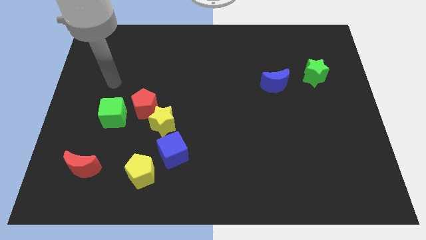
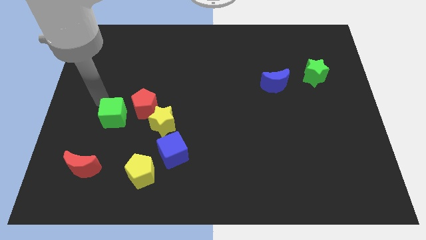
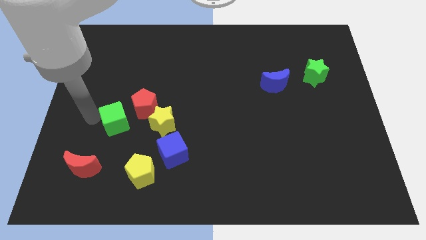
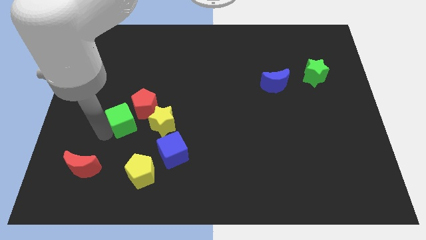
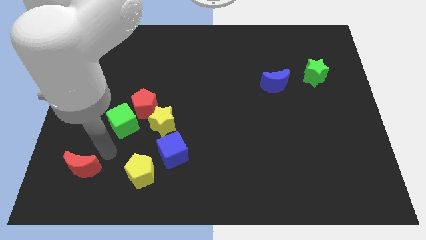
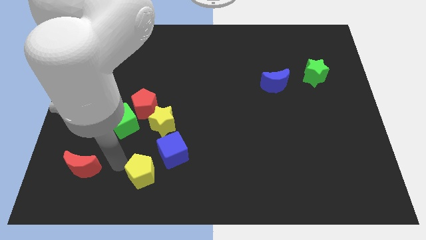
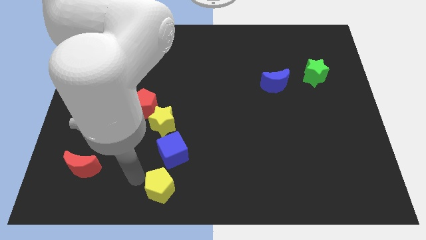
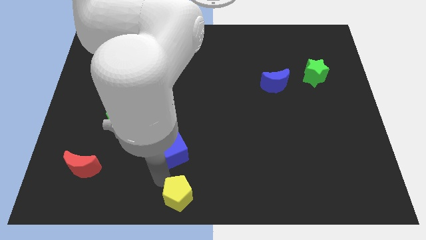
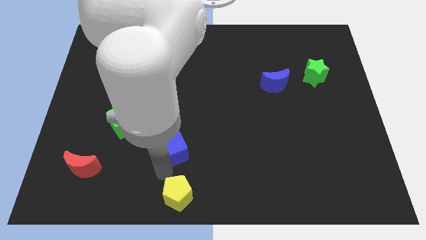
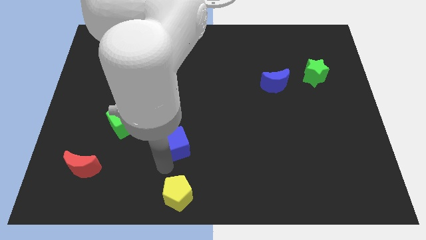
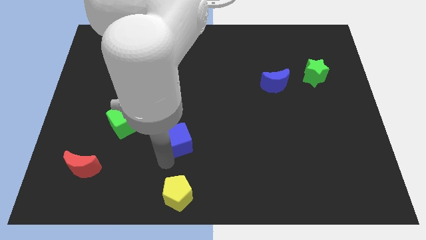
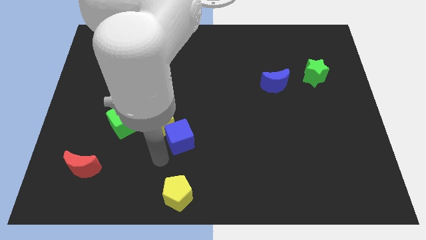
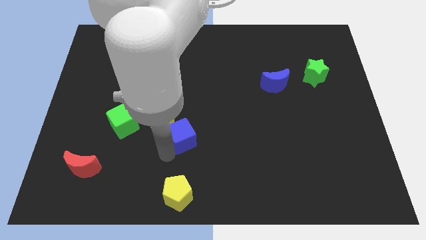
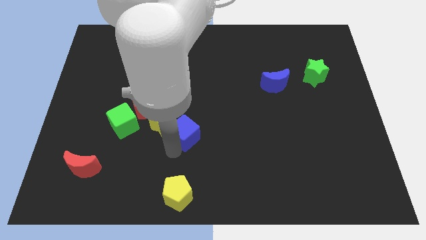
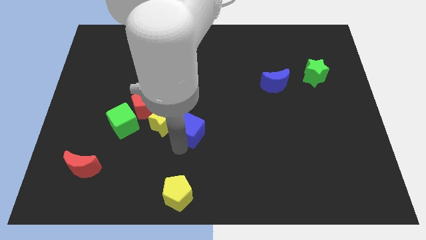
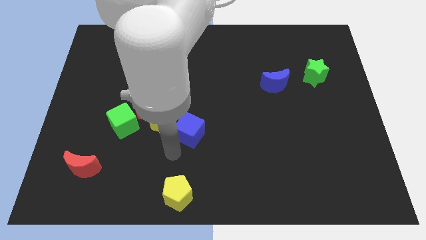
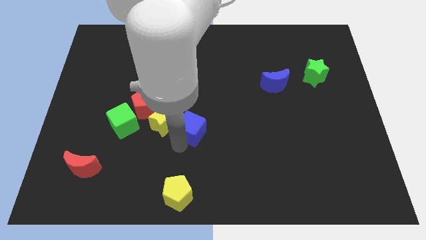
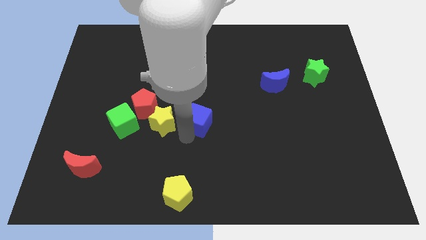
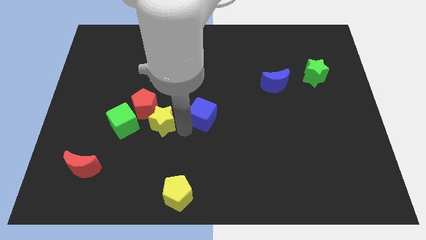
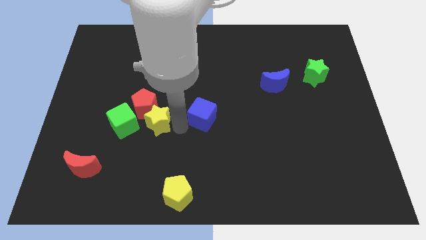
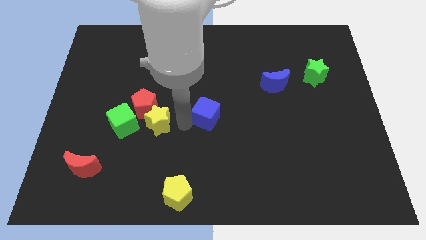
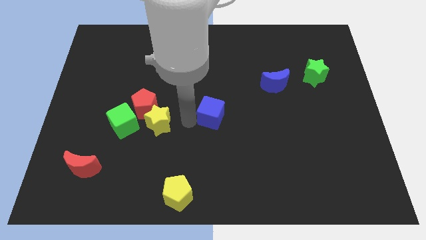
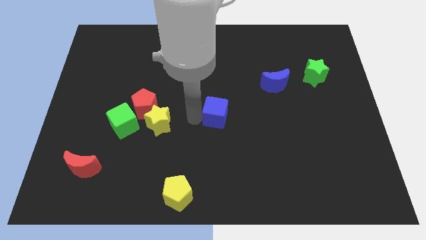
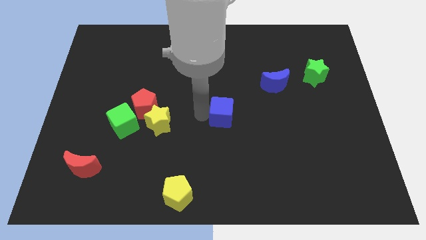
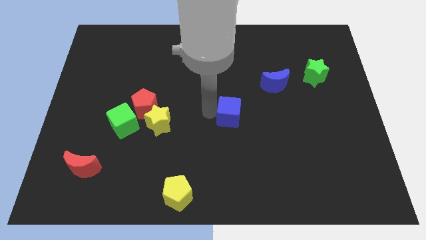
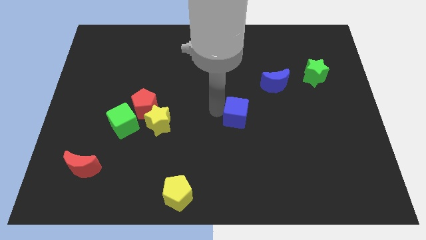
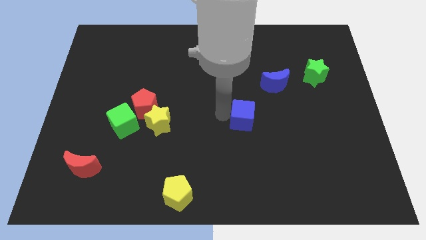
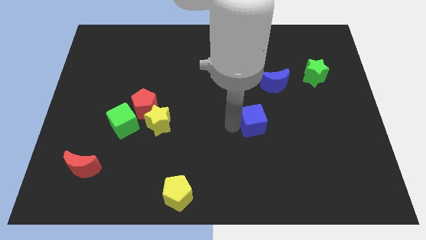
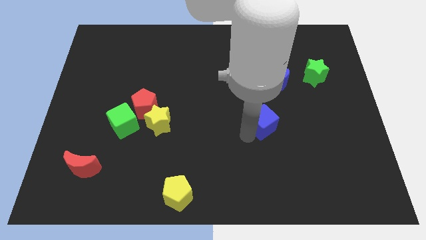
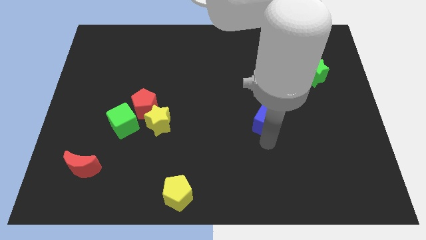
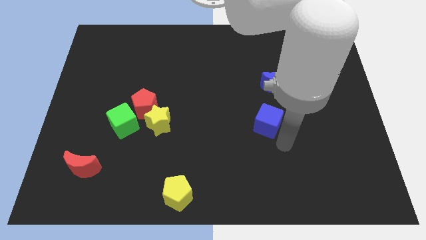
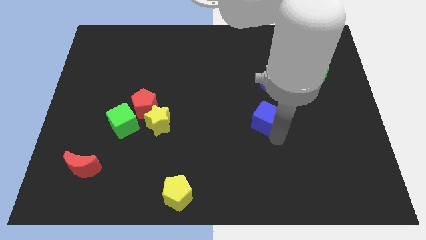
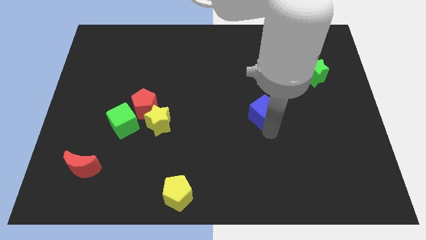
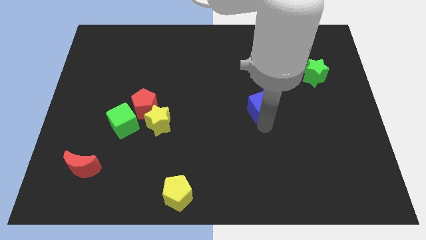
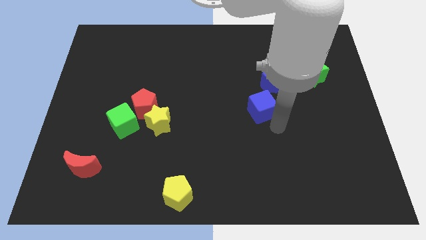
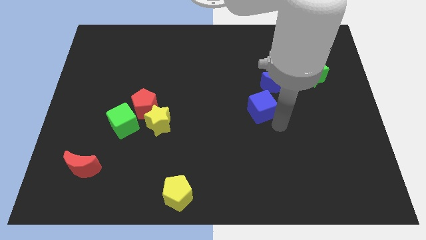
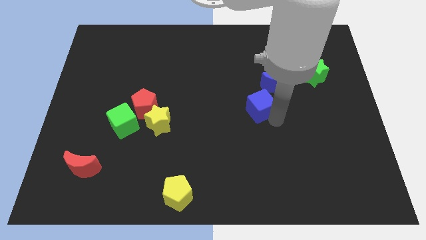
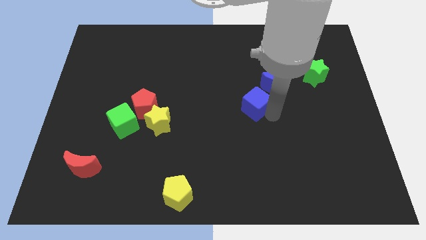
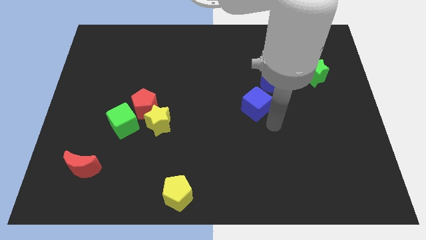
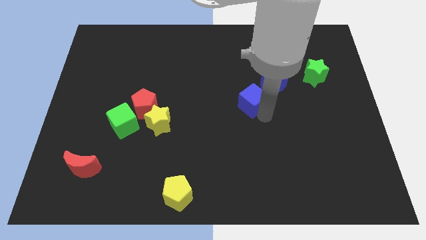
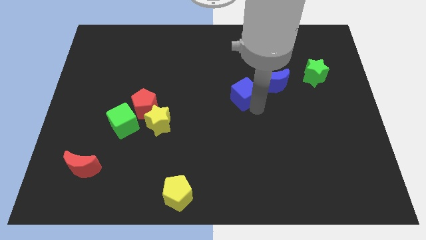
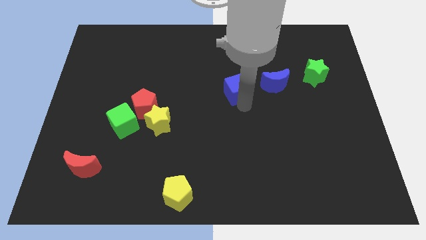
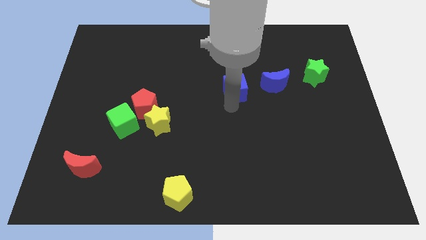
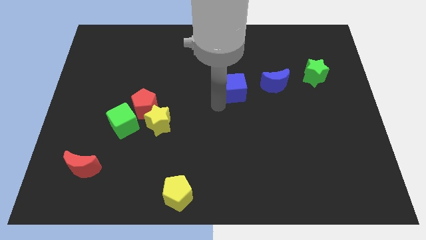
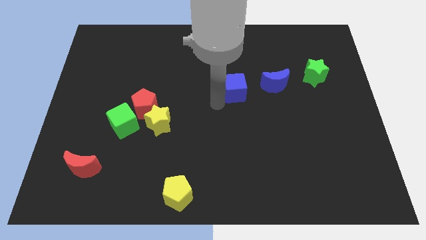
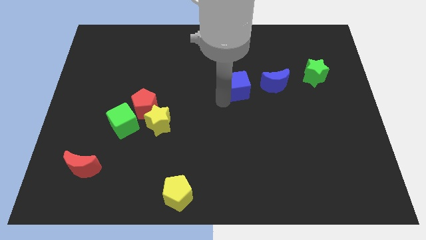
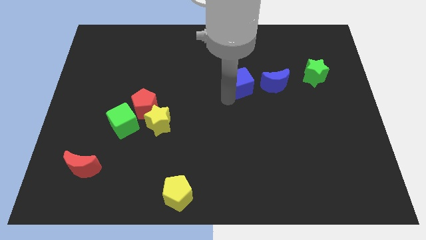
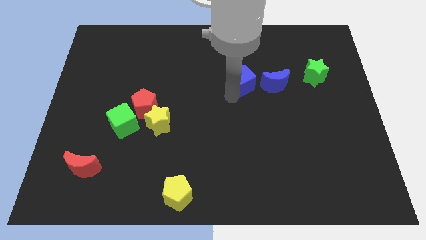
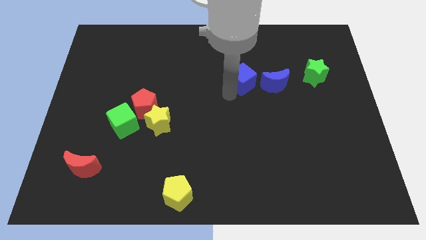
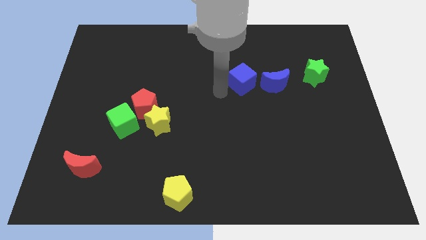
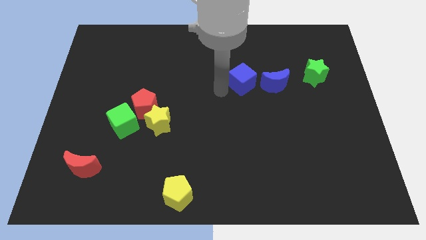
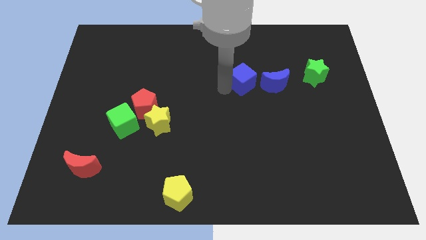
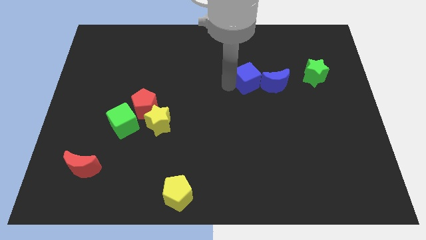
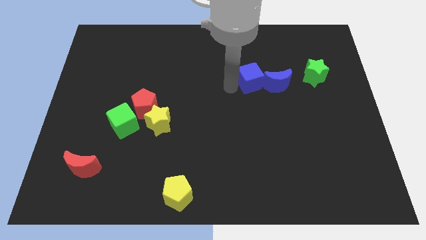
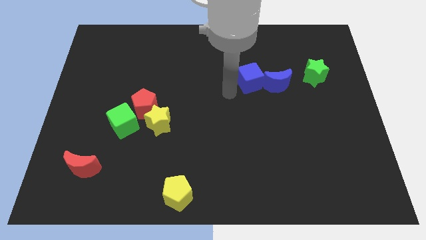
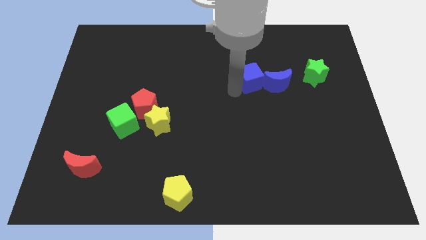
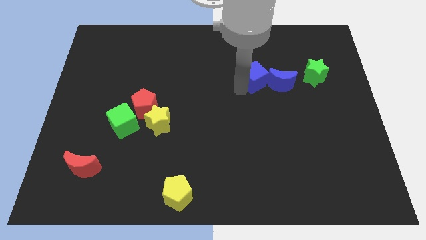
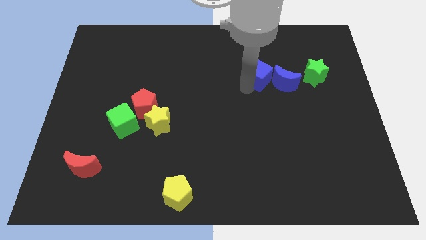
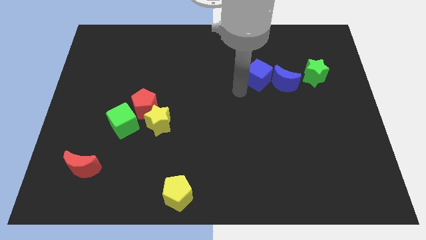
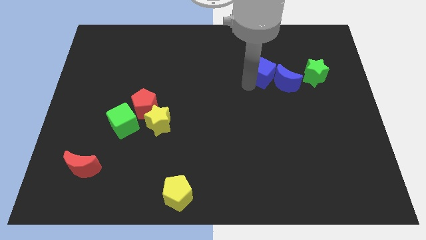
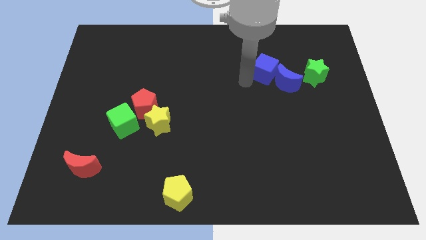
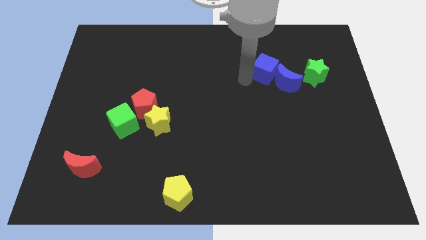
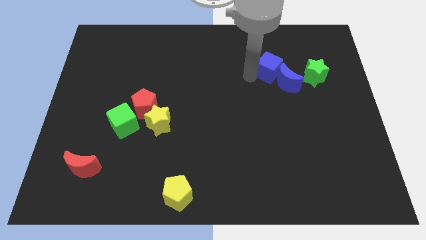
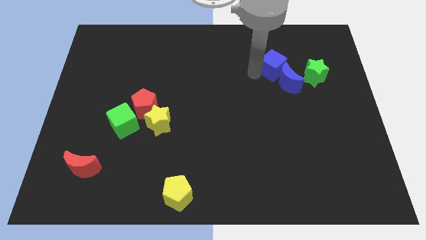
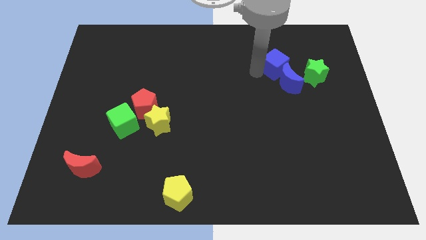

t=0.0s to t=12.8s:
move the blue cube to the top left side of the green star
